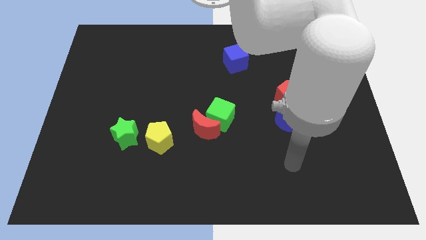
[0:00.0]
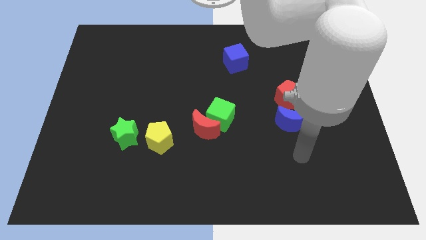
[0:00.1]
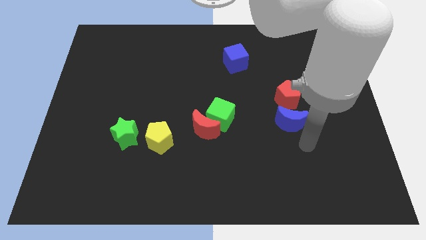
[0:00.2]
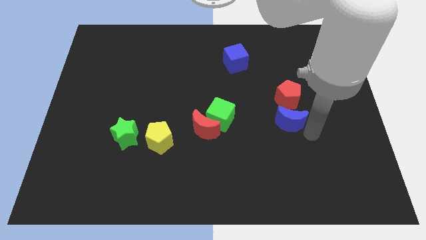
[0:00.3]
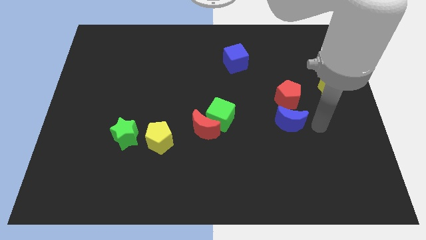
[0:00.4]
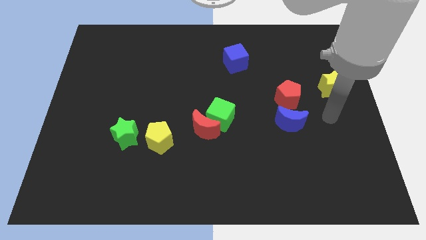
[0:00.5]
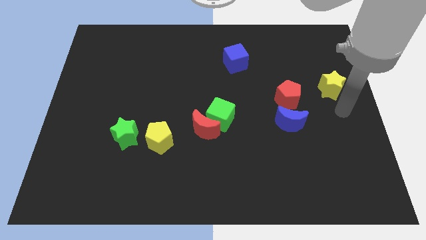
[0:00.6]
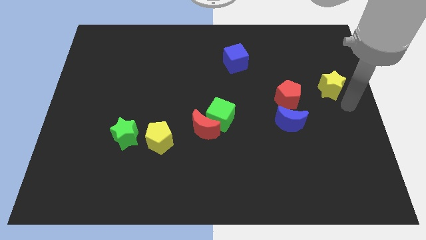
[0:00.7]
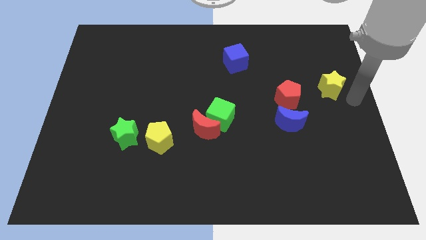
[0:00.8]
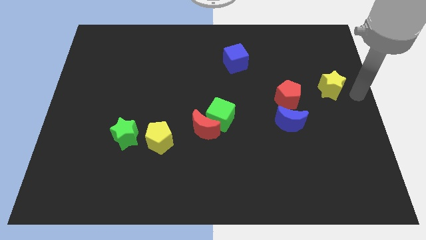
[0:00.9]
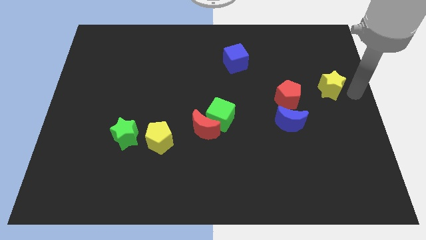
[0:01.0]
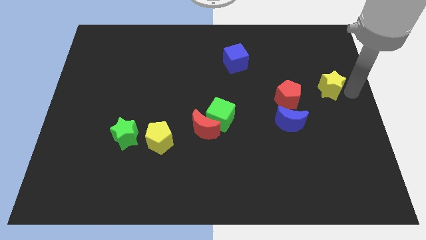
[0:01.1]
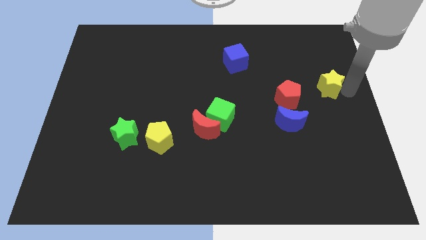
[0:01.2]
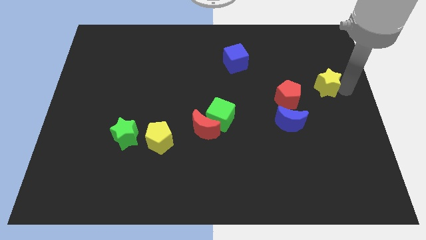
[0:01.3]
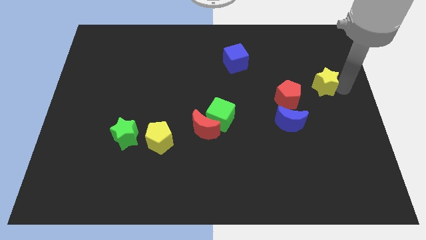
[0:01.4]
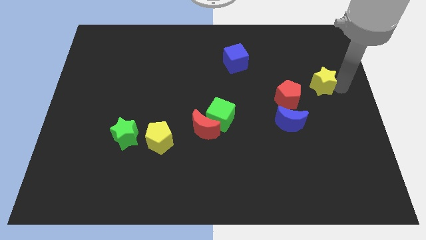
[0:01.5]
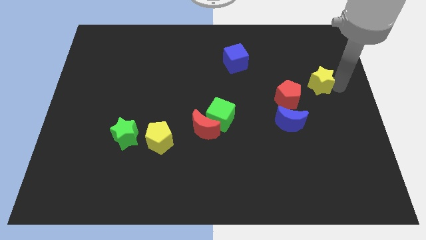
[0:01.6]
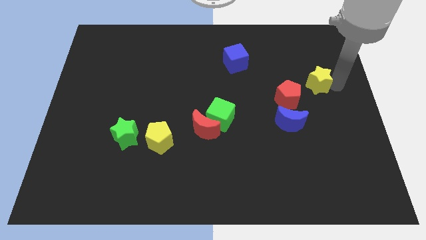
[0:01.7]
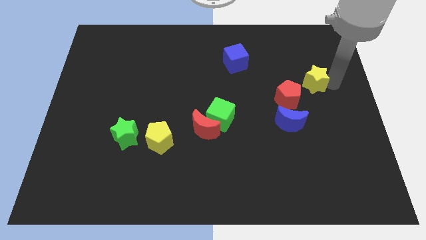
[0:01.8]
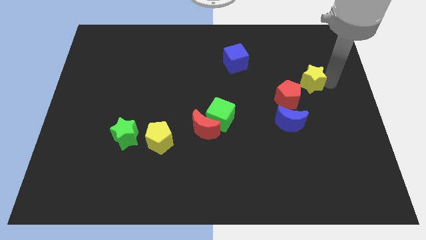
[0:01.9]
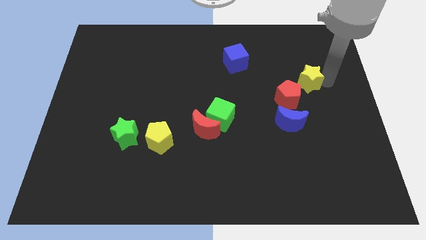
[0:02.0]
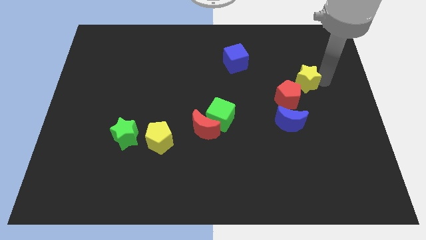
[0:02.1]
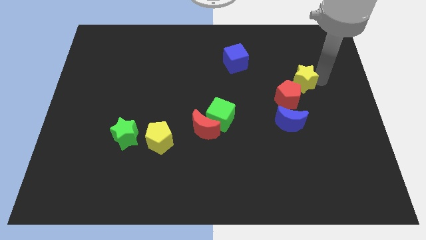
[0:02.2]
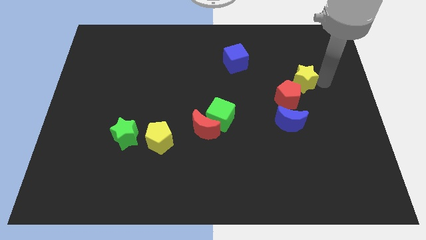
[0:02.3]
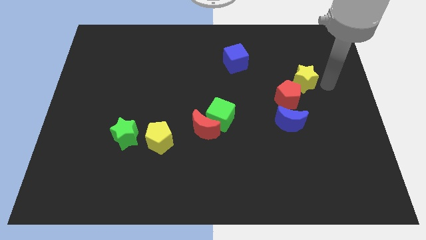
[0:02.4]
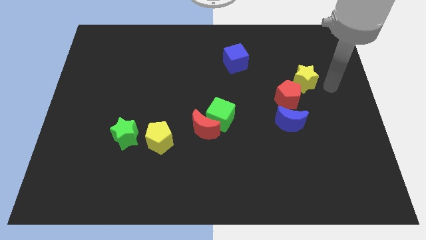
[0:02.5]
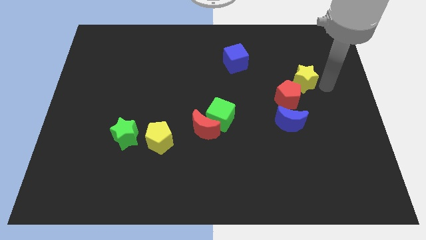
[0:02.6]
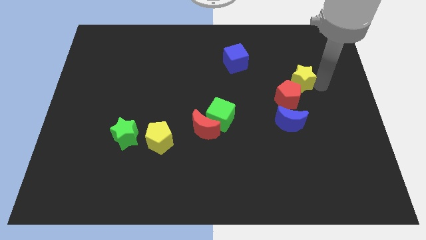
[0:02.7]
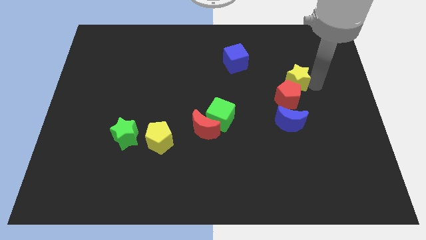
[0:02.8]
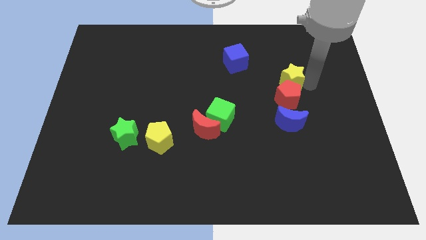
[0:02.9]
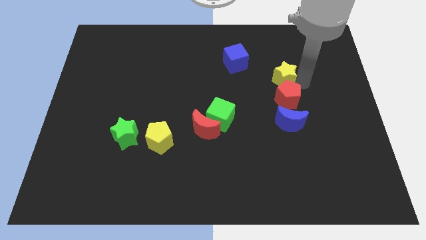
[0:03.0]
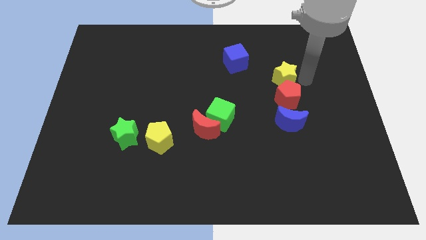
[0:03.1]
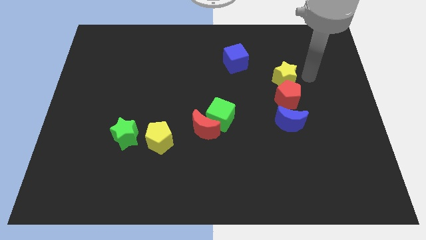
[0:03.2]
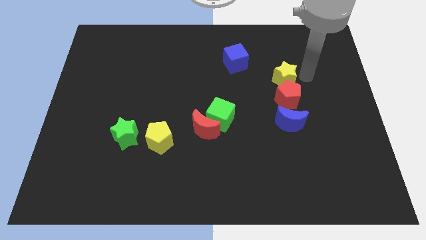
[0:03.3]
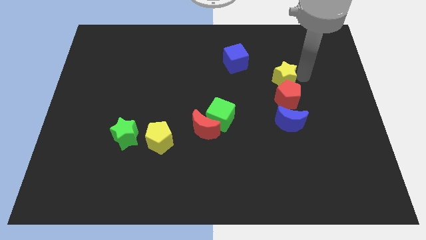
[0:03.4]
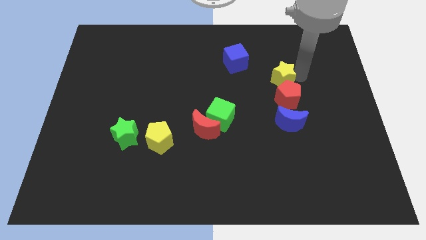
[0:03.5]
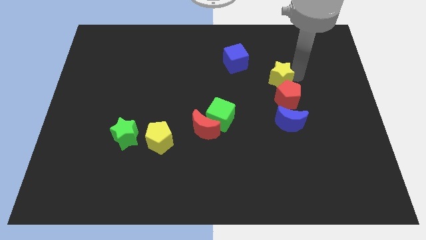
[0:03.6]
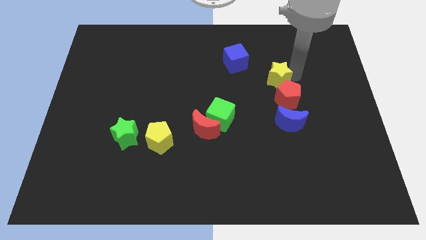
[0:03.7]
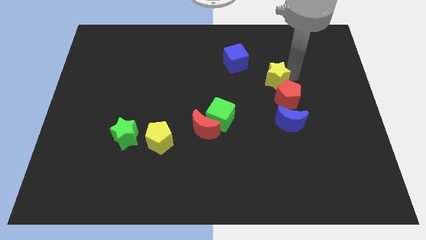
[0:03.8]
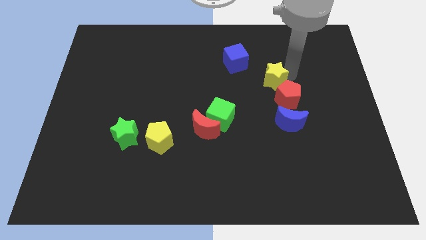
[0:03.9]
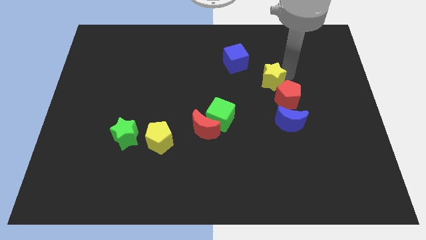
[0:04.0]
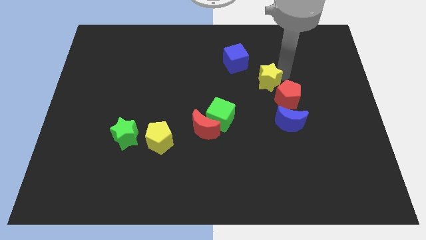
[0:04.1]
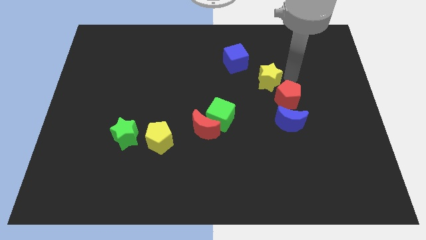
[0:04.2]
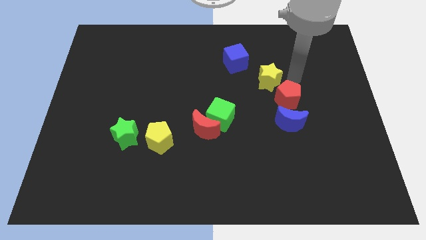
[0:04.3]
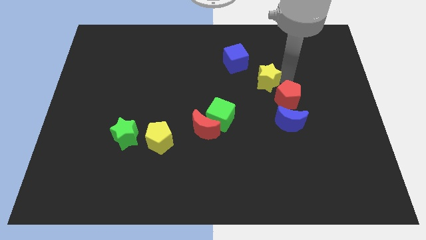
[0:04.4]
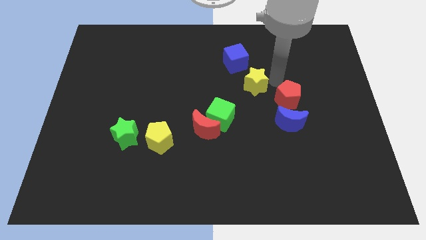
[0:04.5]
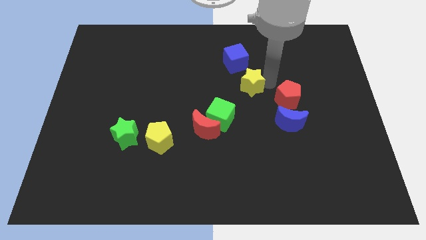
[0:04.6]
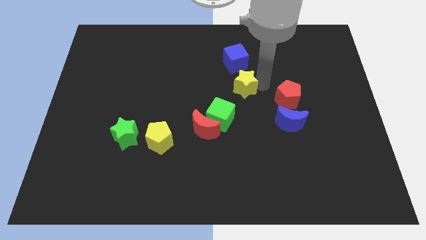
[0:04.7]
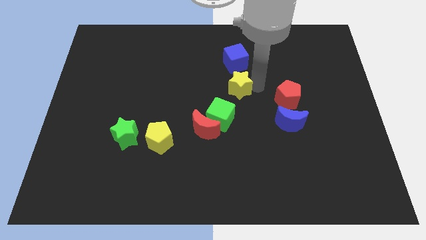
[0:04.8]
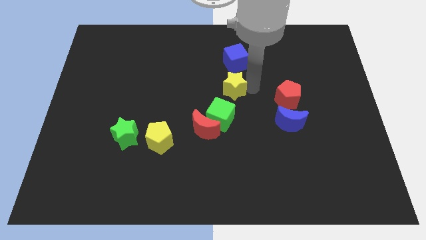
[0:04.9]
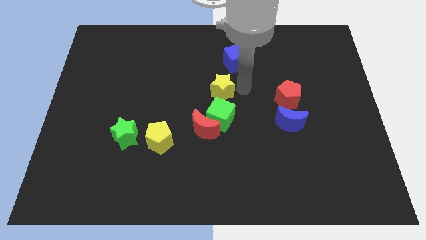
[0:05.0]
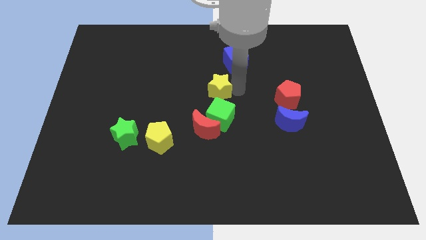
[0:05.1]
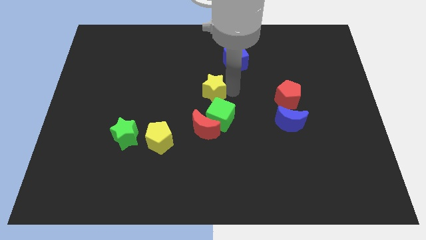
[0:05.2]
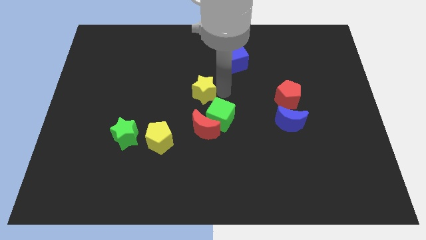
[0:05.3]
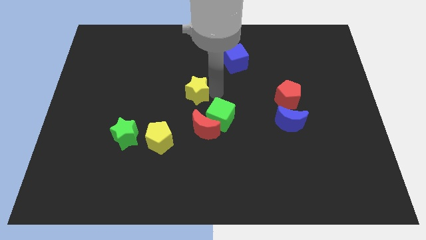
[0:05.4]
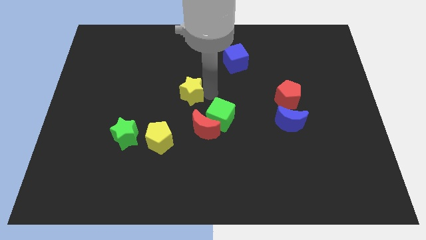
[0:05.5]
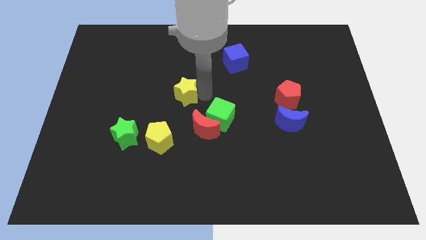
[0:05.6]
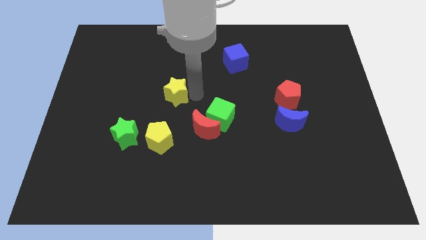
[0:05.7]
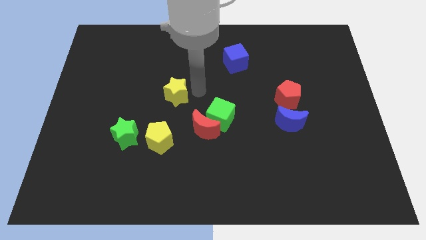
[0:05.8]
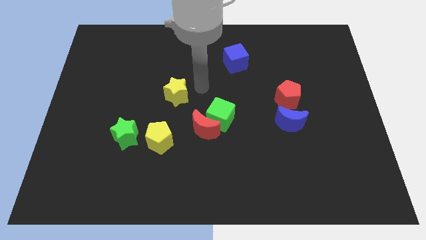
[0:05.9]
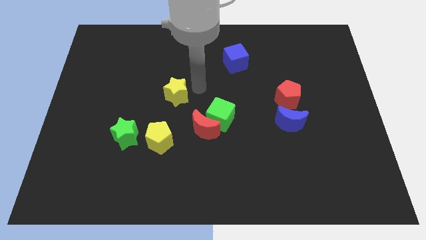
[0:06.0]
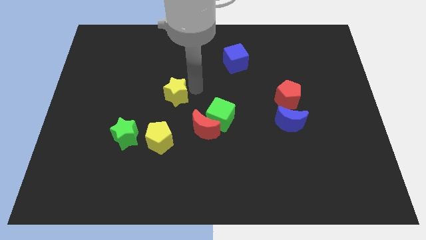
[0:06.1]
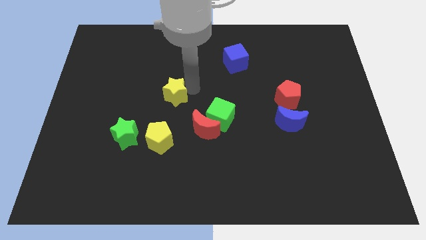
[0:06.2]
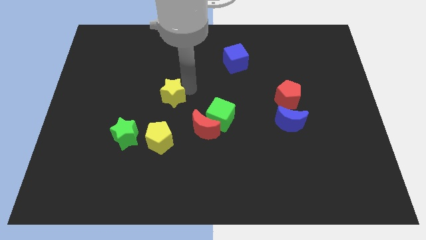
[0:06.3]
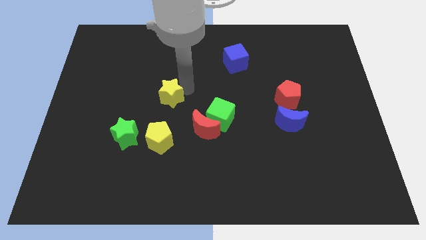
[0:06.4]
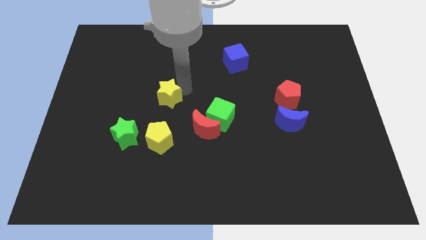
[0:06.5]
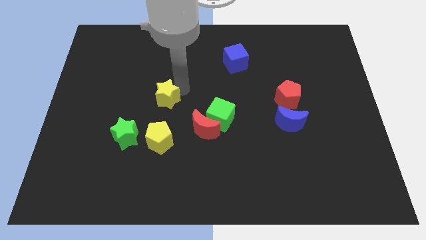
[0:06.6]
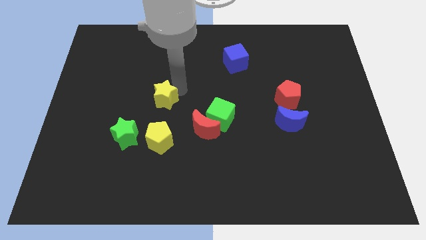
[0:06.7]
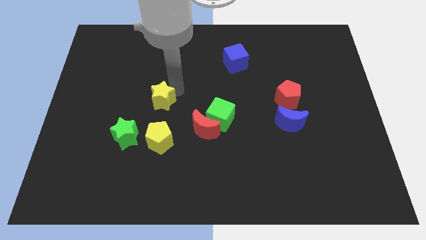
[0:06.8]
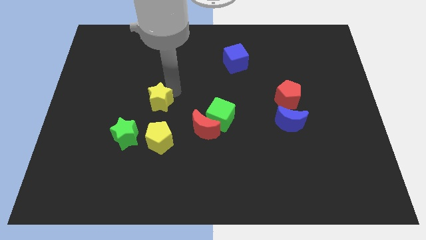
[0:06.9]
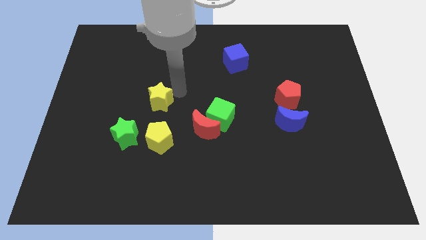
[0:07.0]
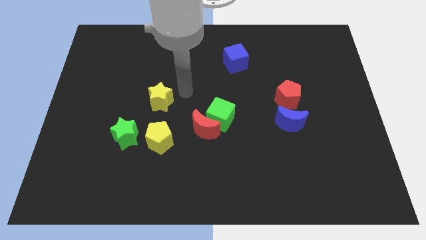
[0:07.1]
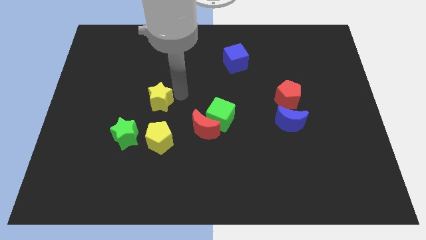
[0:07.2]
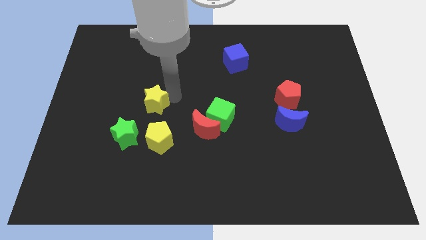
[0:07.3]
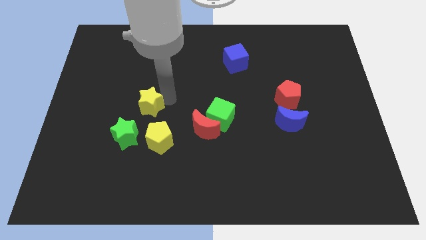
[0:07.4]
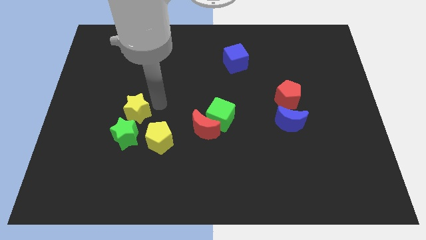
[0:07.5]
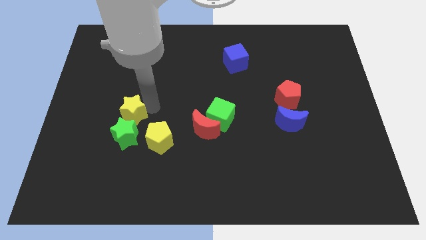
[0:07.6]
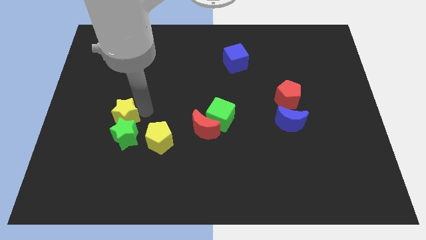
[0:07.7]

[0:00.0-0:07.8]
slide the yellow star diagonally up and to the left of the green star

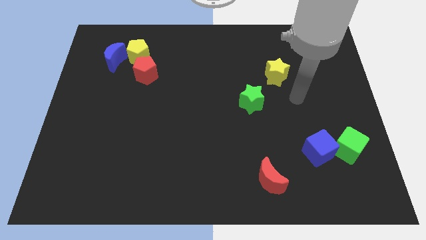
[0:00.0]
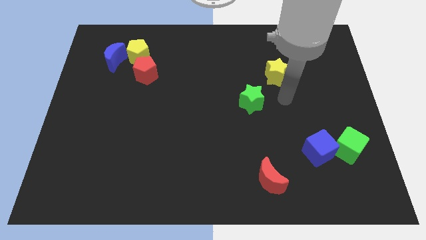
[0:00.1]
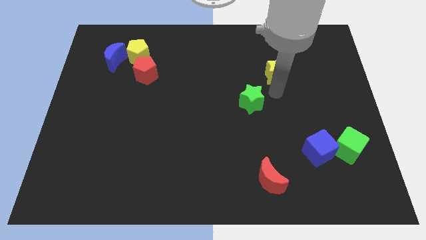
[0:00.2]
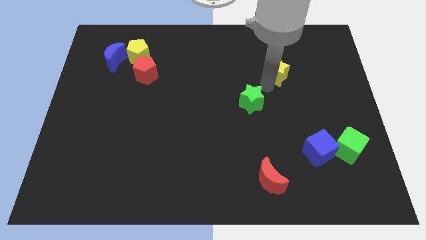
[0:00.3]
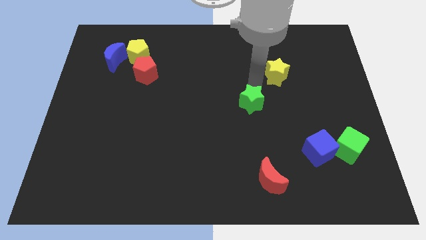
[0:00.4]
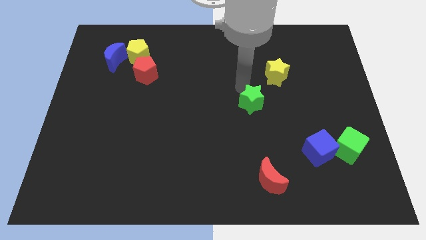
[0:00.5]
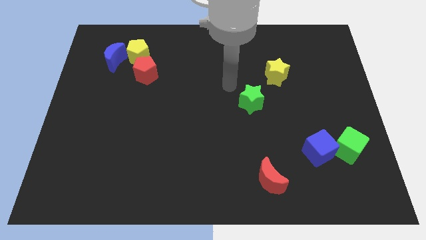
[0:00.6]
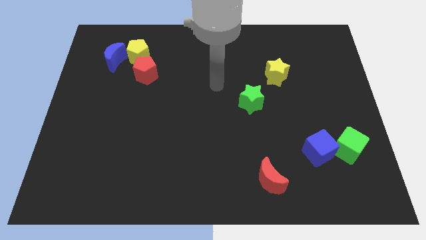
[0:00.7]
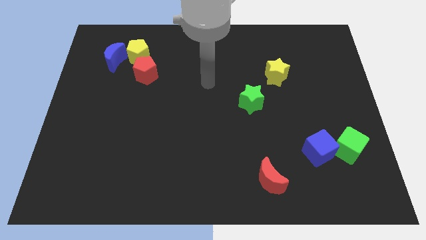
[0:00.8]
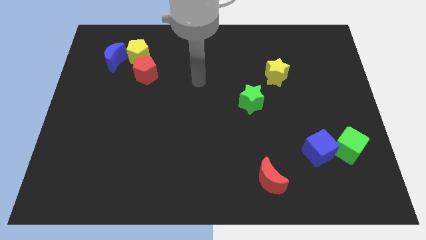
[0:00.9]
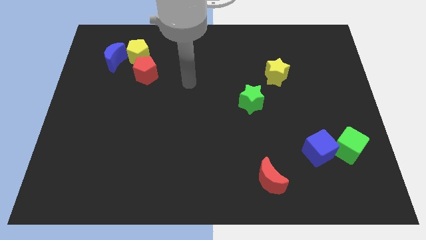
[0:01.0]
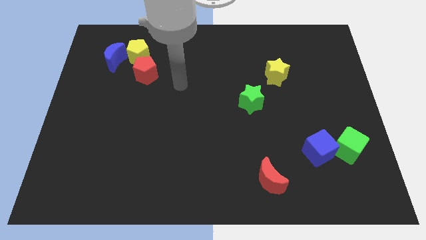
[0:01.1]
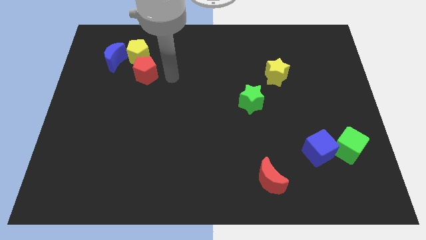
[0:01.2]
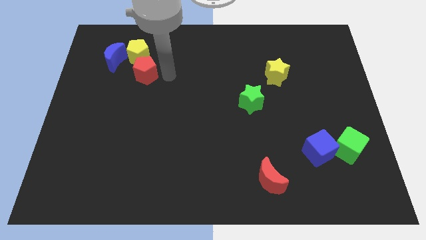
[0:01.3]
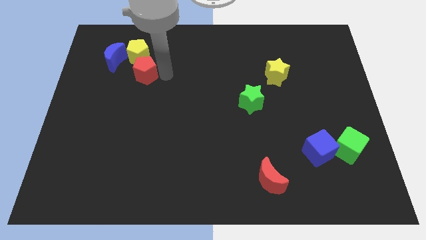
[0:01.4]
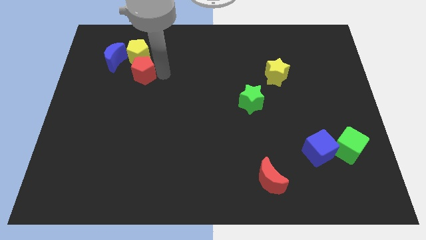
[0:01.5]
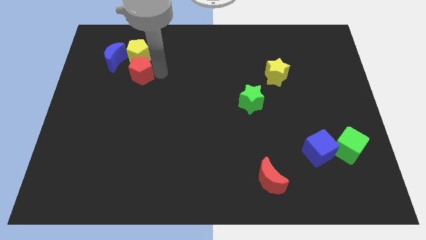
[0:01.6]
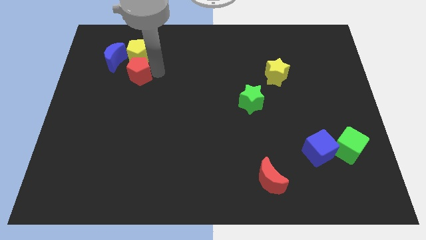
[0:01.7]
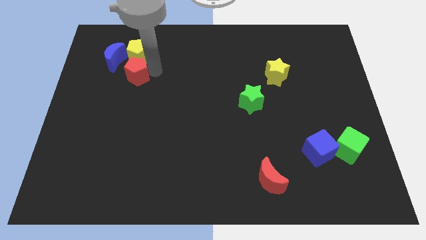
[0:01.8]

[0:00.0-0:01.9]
push the red pentagon to the bottom left side of the yellow pentagon
